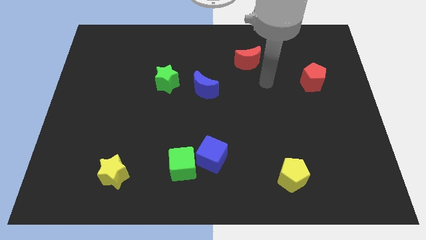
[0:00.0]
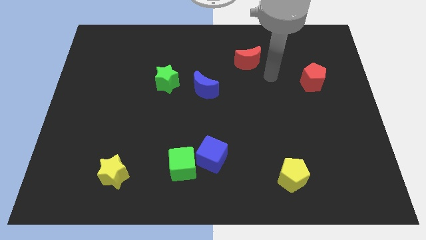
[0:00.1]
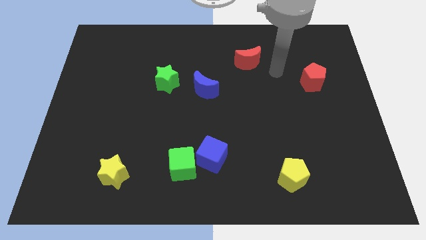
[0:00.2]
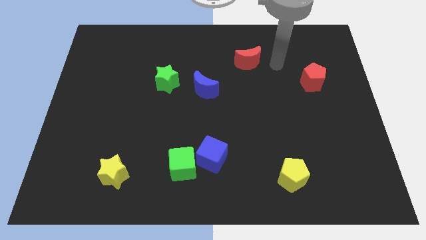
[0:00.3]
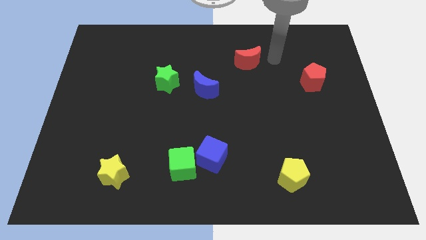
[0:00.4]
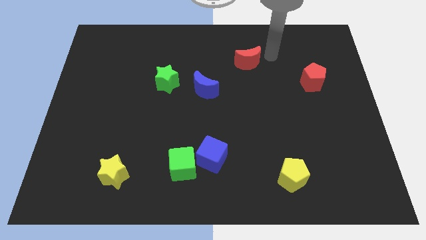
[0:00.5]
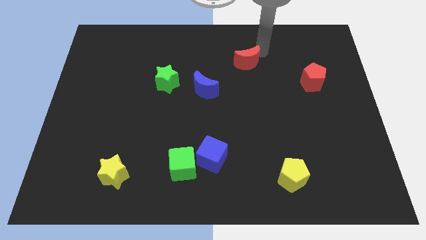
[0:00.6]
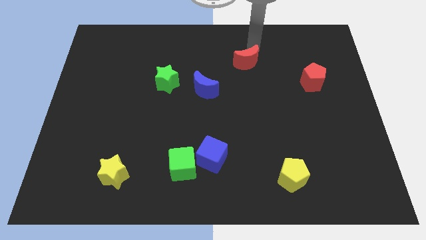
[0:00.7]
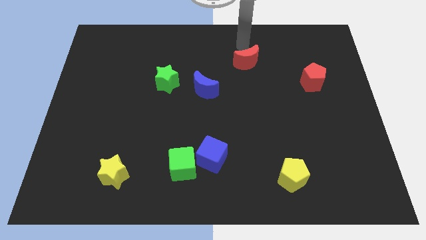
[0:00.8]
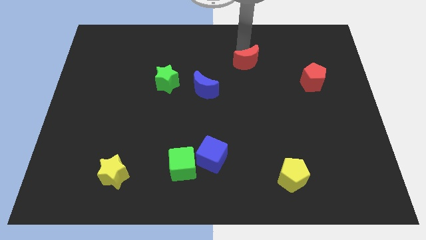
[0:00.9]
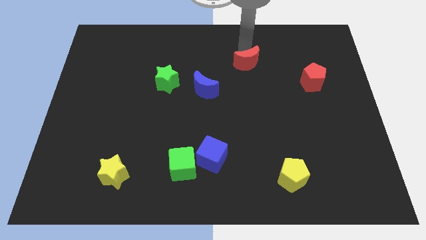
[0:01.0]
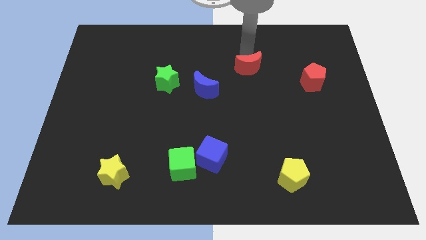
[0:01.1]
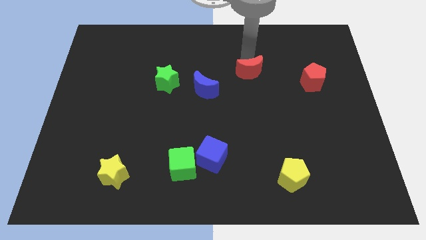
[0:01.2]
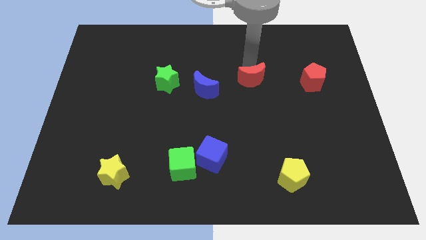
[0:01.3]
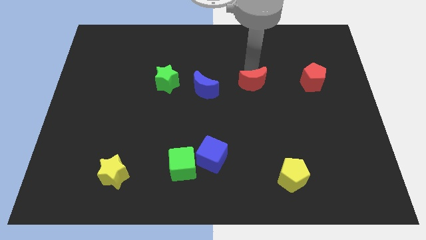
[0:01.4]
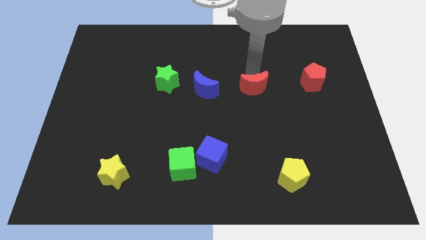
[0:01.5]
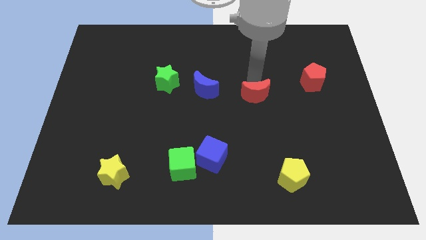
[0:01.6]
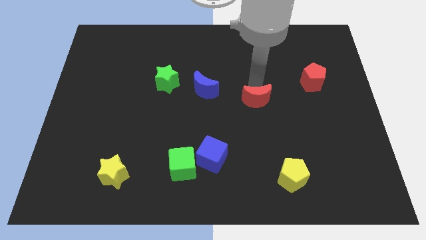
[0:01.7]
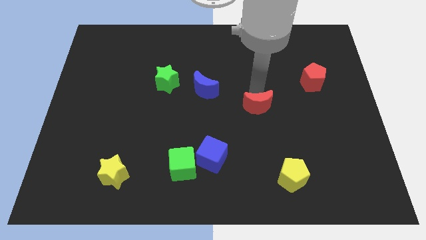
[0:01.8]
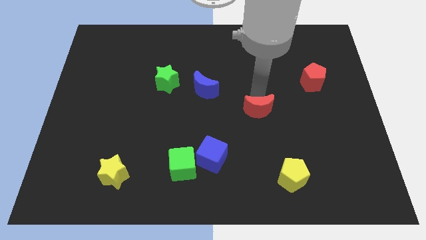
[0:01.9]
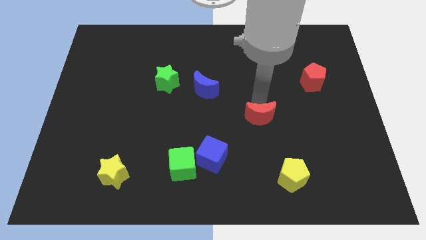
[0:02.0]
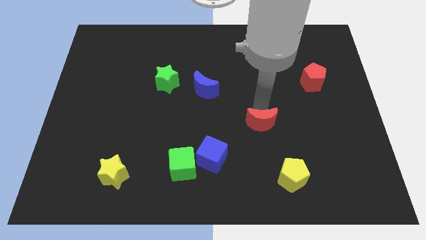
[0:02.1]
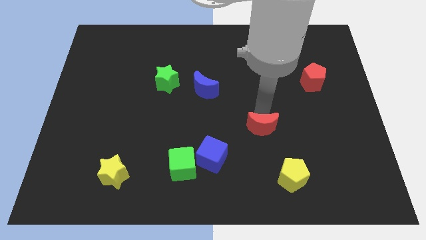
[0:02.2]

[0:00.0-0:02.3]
push the red moon down

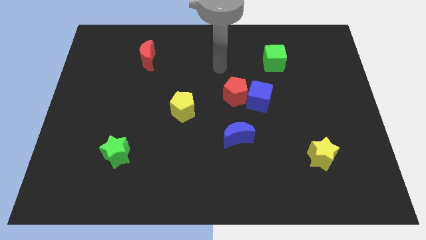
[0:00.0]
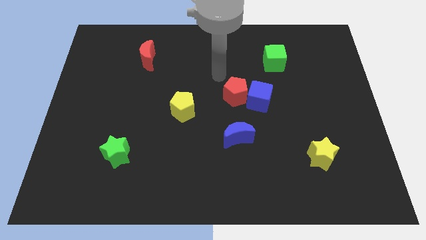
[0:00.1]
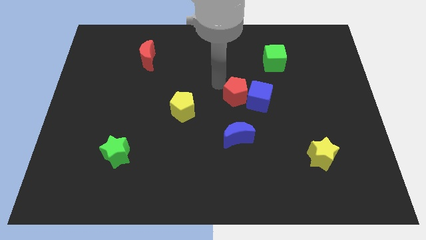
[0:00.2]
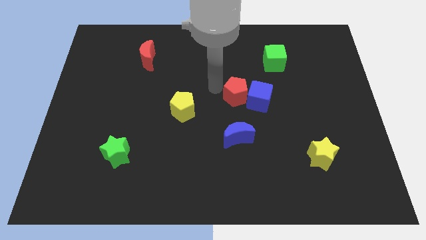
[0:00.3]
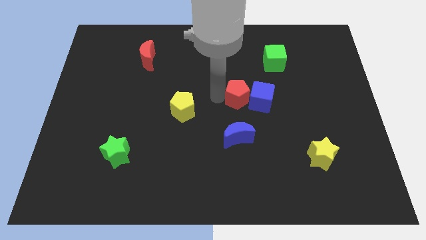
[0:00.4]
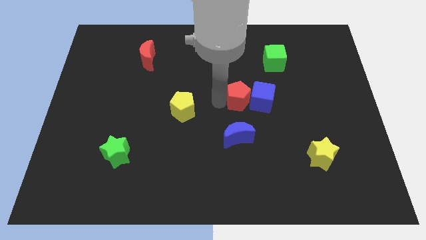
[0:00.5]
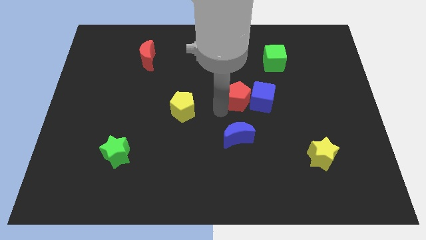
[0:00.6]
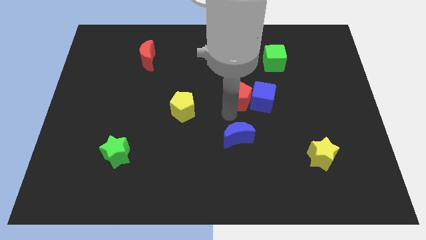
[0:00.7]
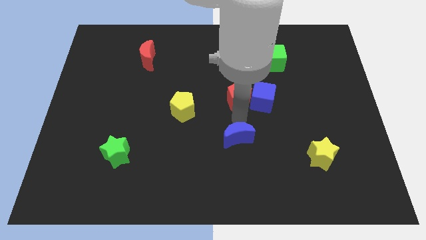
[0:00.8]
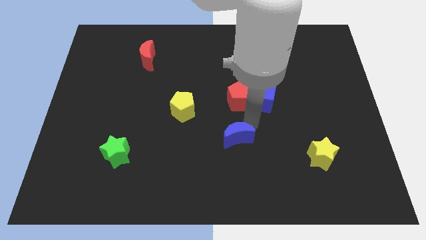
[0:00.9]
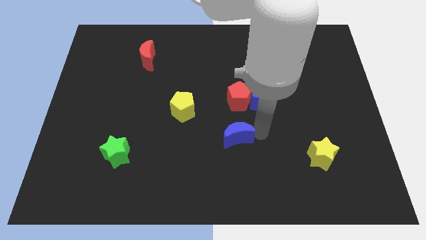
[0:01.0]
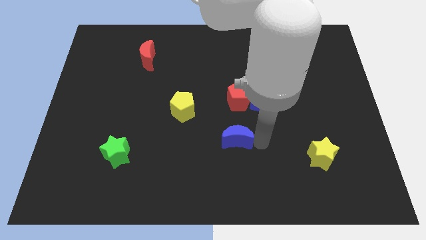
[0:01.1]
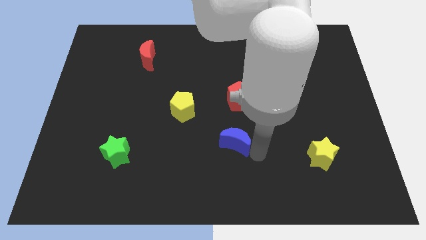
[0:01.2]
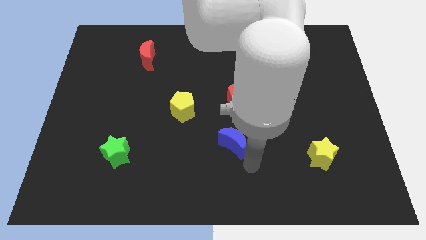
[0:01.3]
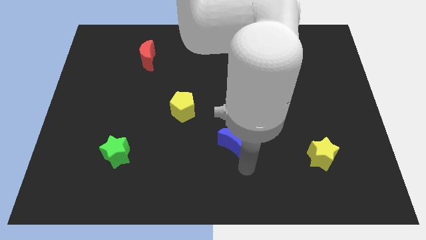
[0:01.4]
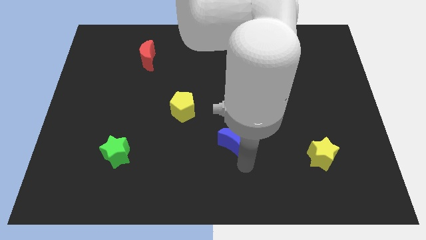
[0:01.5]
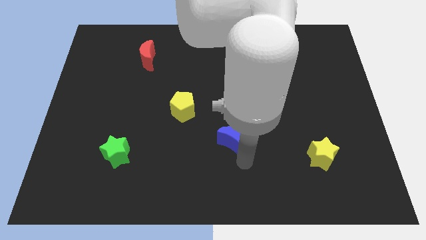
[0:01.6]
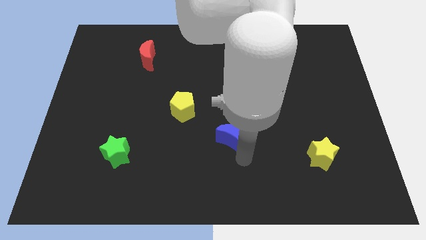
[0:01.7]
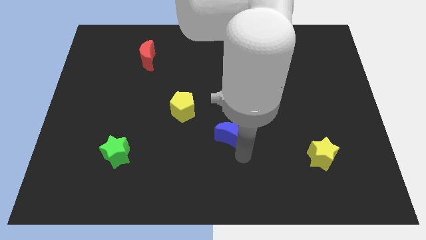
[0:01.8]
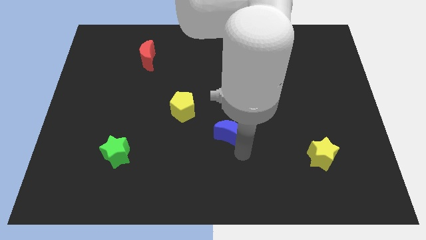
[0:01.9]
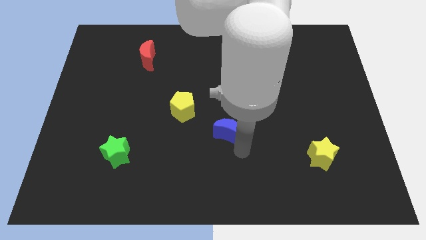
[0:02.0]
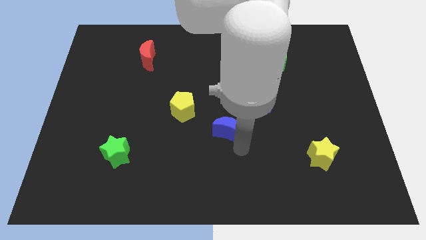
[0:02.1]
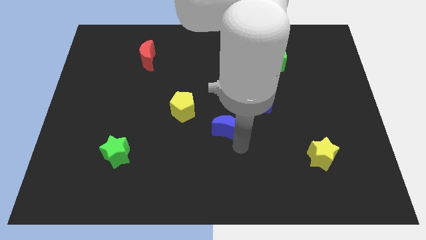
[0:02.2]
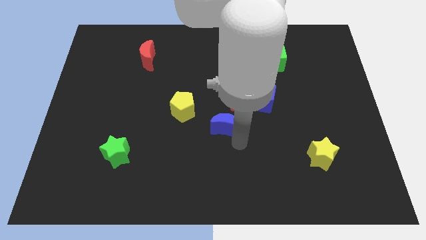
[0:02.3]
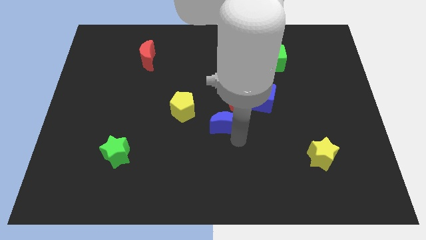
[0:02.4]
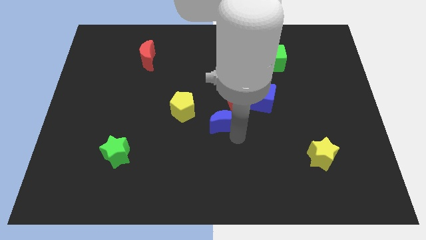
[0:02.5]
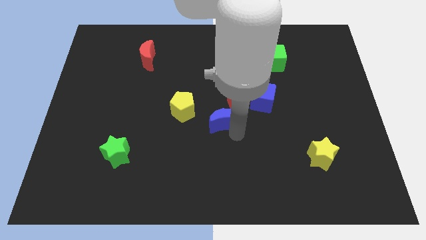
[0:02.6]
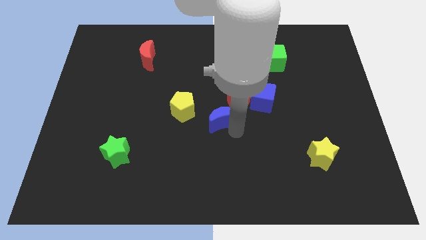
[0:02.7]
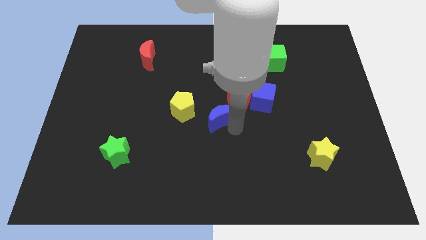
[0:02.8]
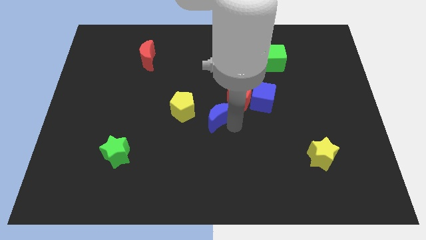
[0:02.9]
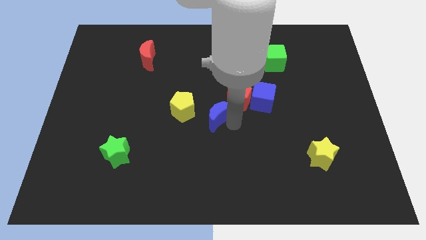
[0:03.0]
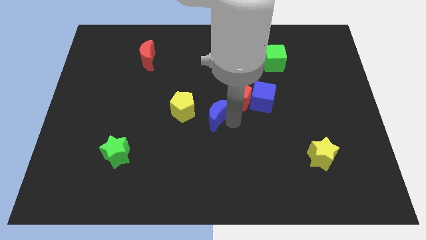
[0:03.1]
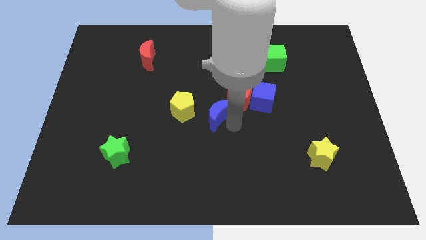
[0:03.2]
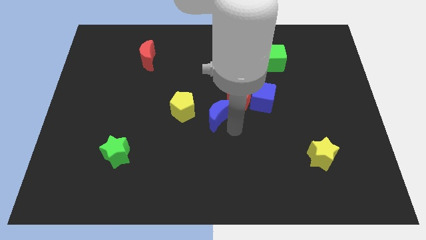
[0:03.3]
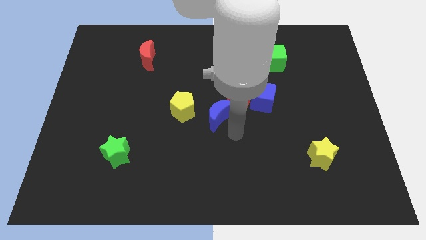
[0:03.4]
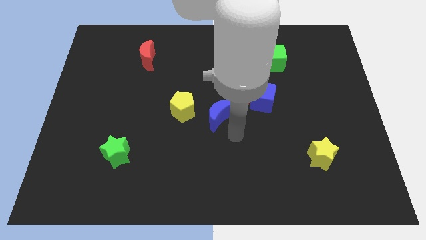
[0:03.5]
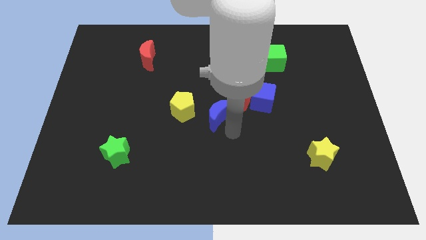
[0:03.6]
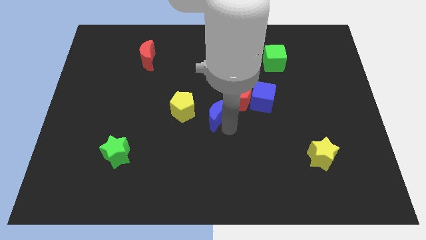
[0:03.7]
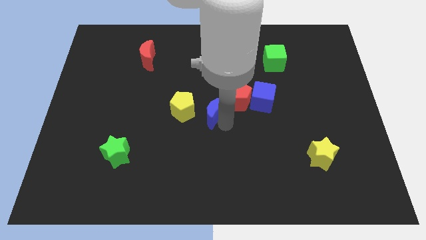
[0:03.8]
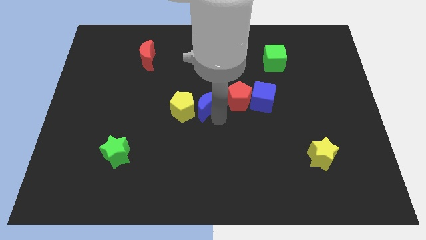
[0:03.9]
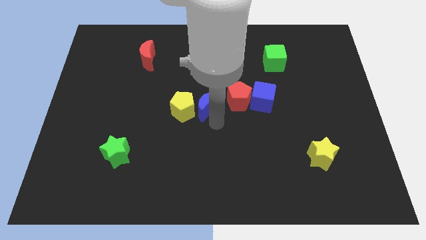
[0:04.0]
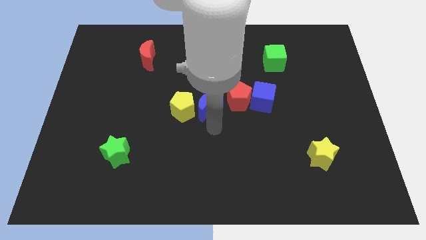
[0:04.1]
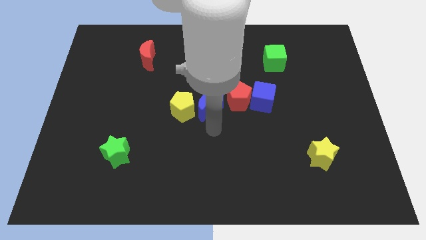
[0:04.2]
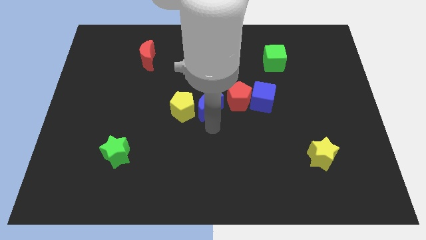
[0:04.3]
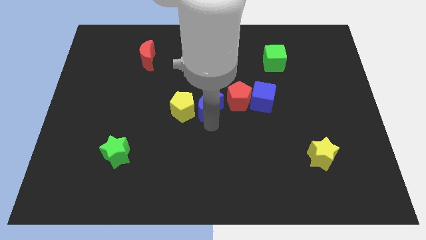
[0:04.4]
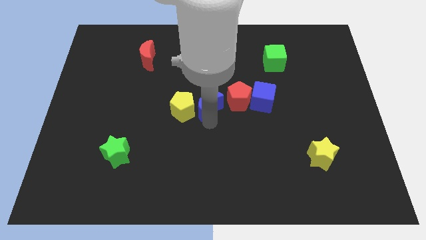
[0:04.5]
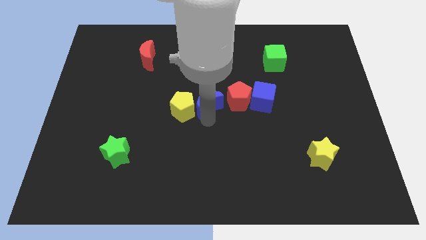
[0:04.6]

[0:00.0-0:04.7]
slightly slide the blue moon up

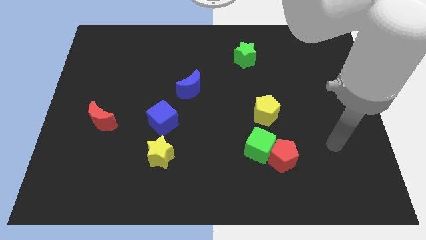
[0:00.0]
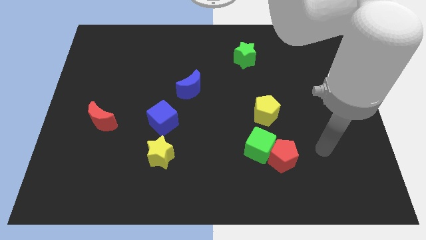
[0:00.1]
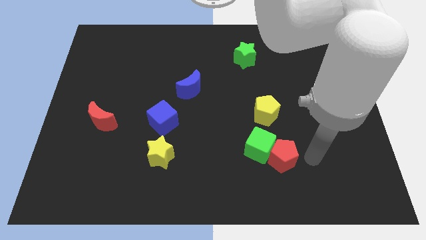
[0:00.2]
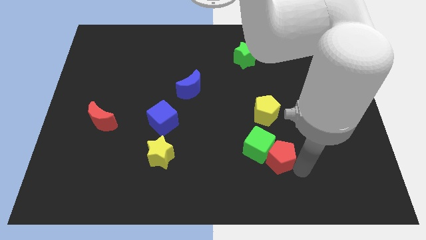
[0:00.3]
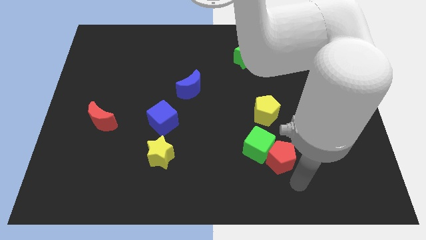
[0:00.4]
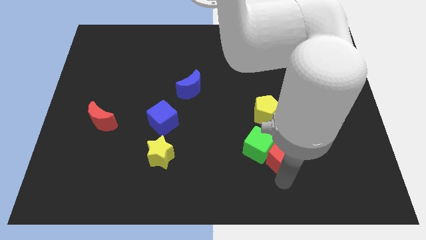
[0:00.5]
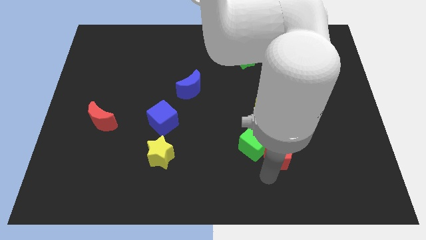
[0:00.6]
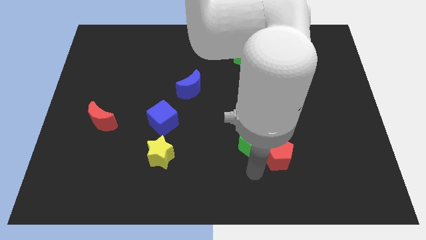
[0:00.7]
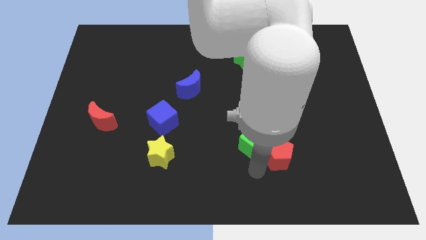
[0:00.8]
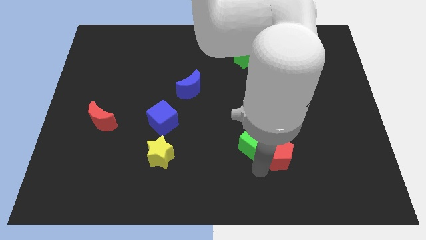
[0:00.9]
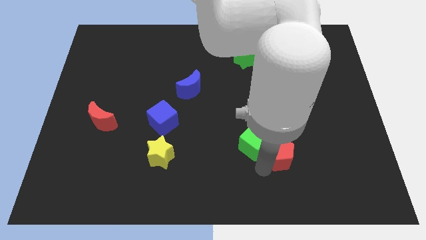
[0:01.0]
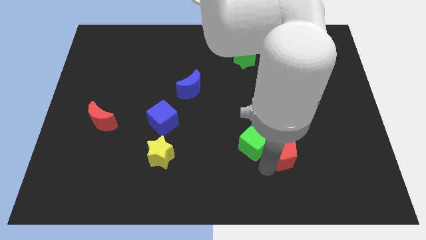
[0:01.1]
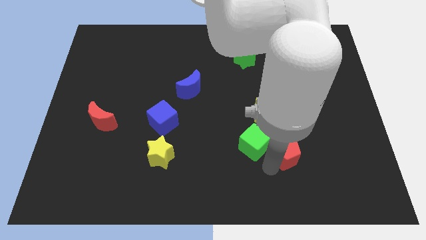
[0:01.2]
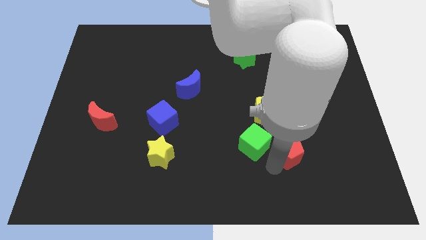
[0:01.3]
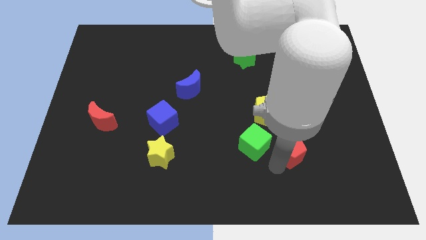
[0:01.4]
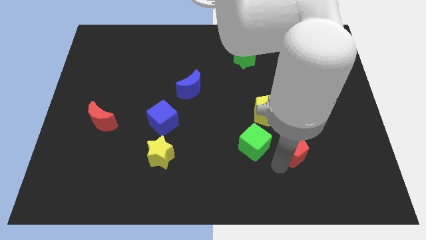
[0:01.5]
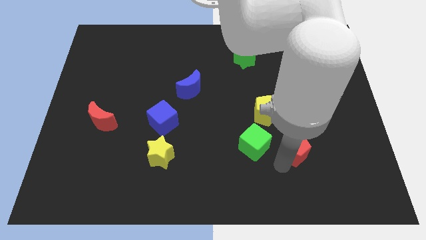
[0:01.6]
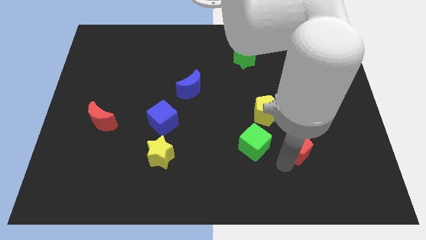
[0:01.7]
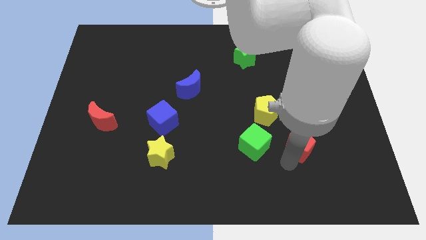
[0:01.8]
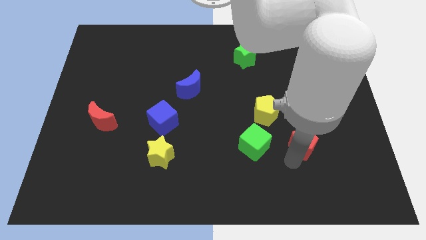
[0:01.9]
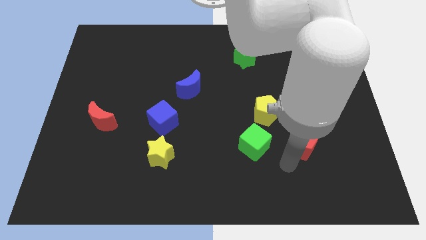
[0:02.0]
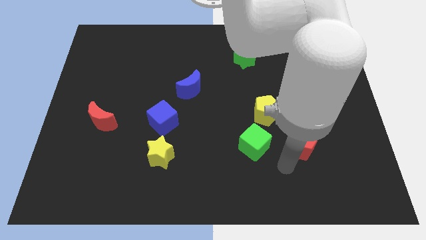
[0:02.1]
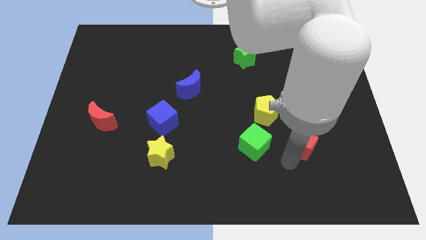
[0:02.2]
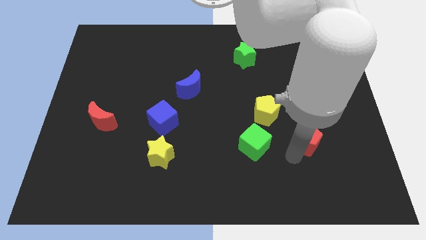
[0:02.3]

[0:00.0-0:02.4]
slightly move the red pentagon upwards and right
